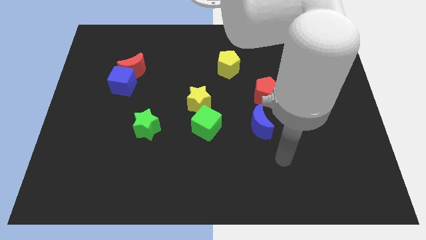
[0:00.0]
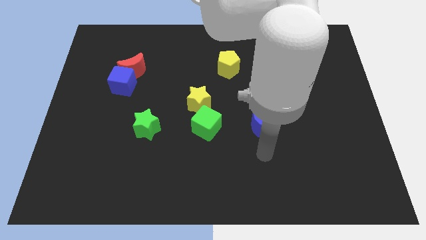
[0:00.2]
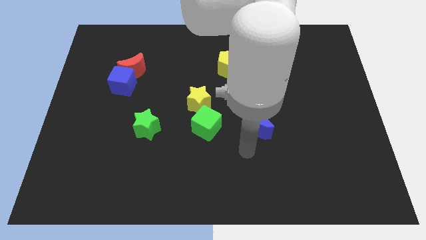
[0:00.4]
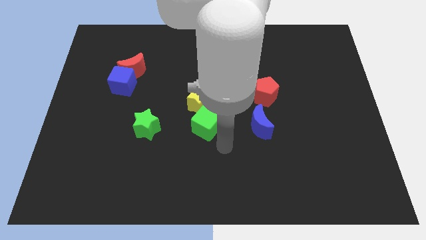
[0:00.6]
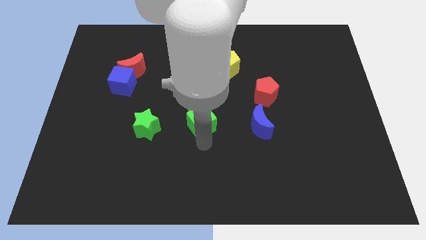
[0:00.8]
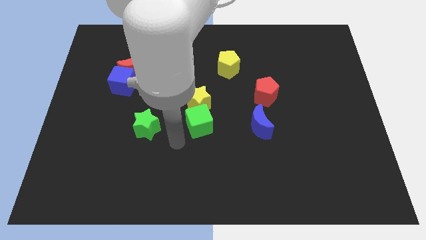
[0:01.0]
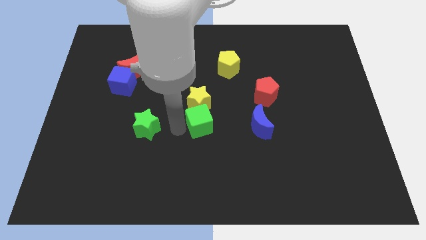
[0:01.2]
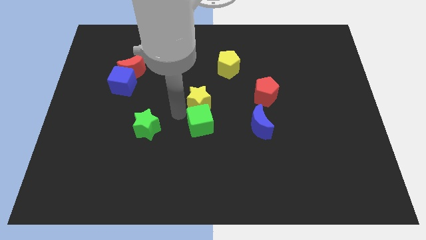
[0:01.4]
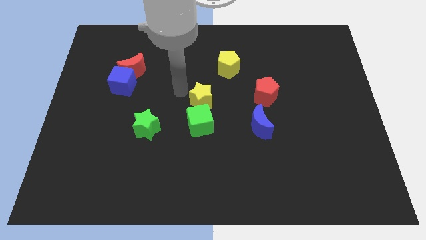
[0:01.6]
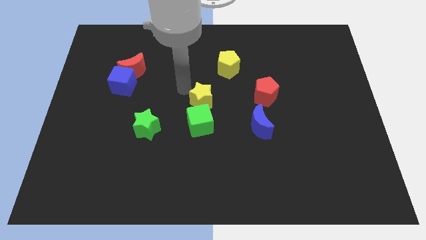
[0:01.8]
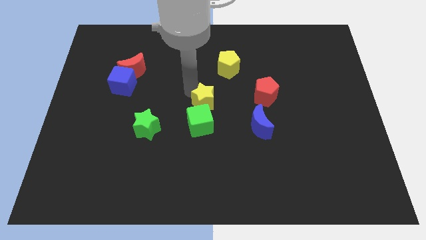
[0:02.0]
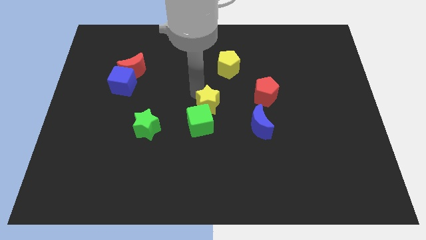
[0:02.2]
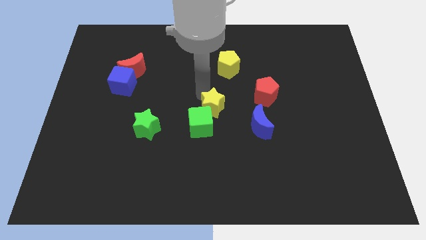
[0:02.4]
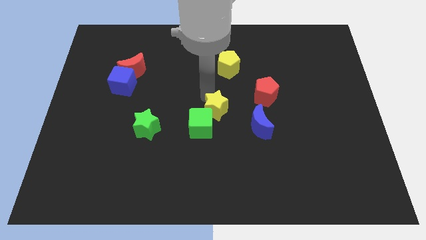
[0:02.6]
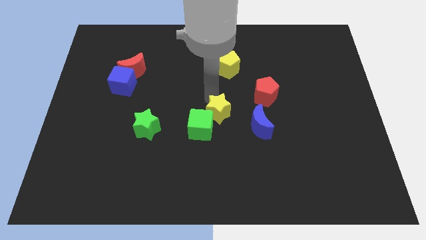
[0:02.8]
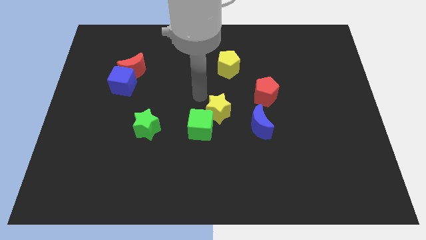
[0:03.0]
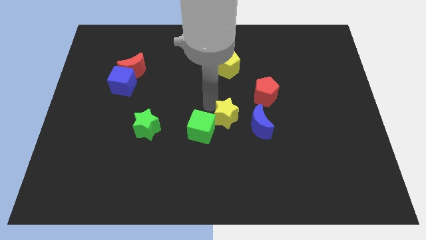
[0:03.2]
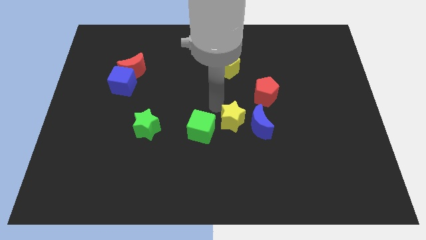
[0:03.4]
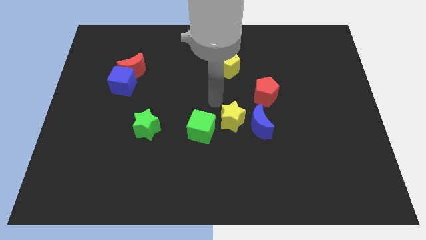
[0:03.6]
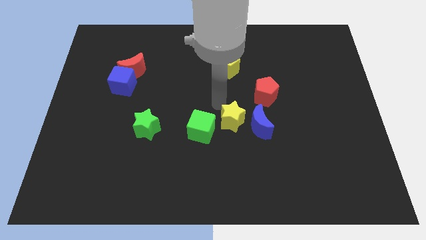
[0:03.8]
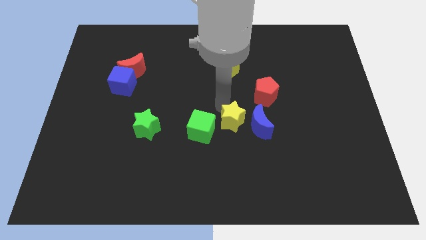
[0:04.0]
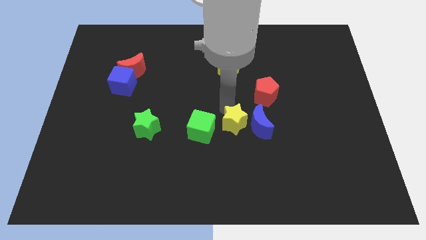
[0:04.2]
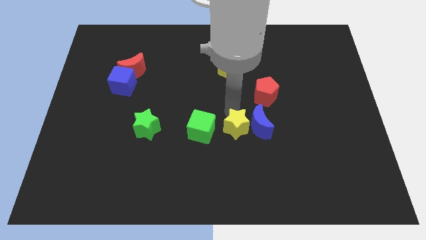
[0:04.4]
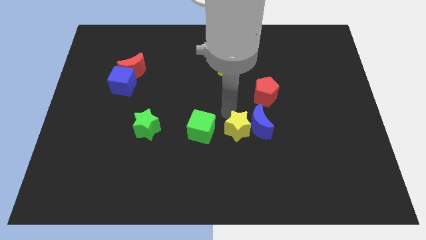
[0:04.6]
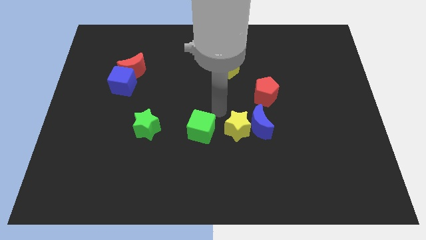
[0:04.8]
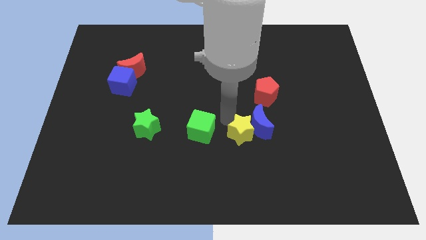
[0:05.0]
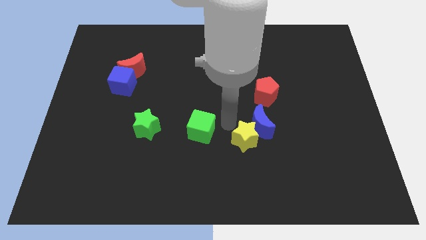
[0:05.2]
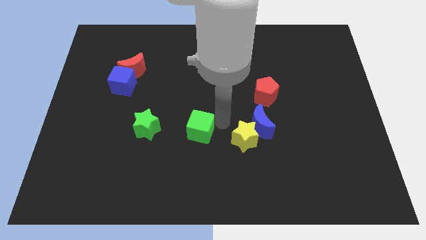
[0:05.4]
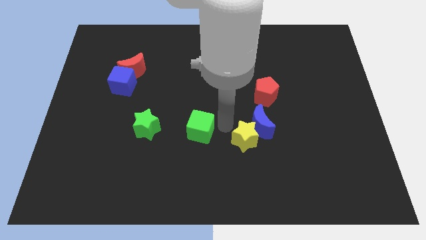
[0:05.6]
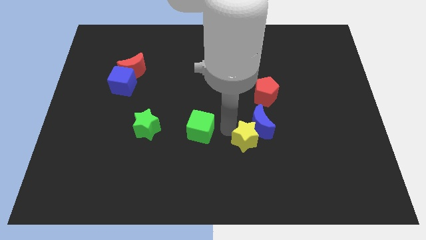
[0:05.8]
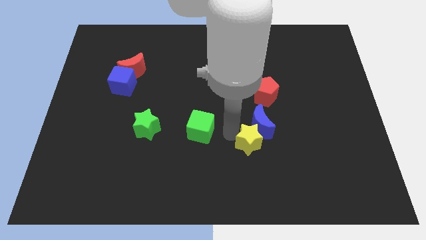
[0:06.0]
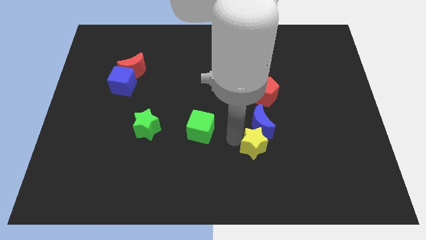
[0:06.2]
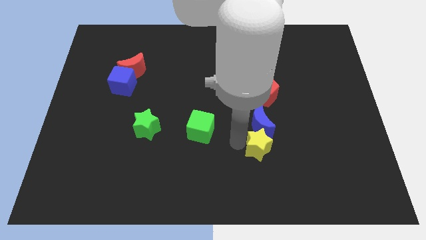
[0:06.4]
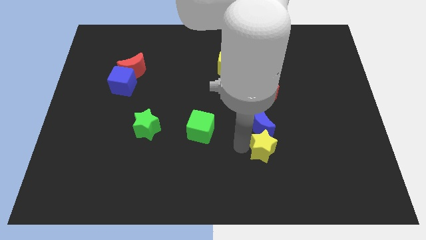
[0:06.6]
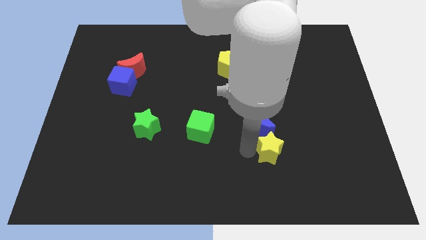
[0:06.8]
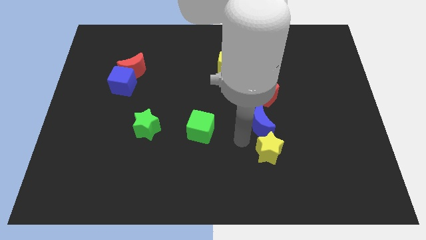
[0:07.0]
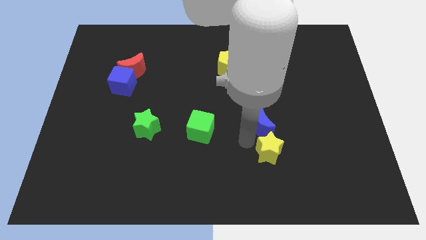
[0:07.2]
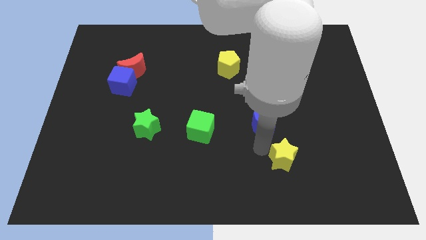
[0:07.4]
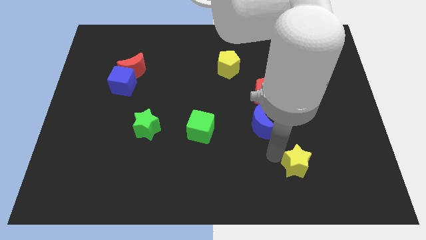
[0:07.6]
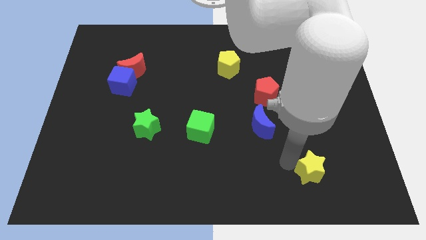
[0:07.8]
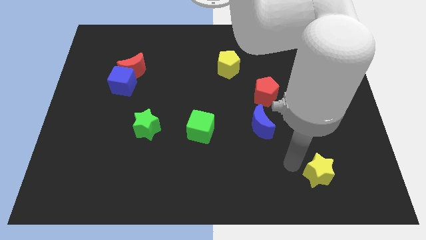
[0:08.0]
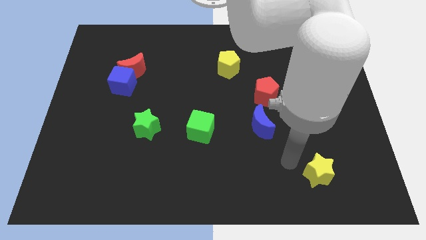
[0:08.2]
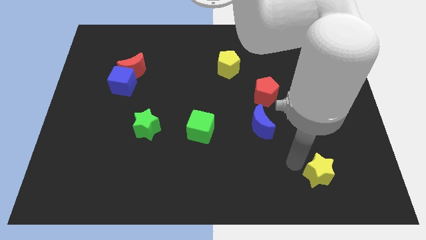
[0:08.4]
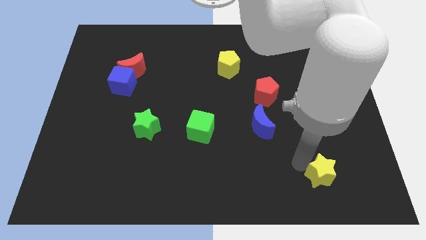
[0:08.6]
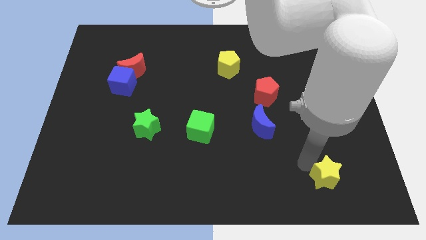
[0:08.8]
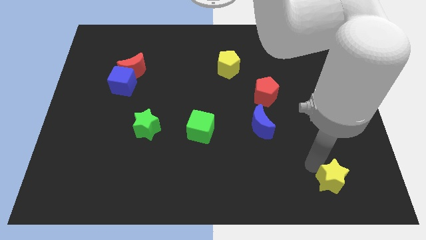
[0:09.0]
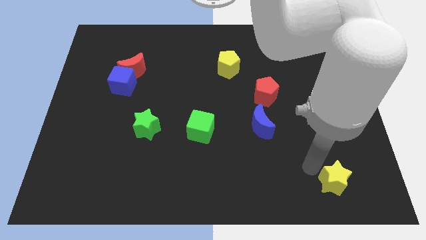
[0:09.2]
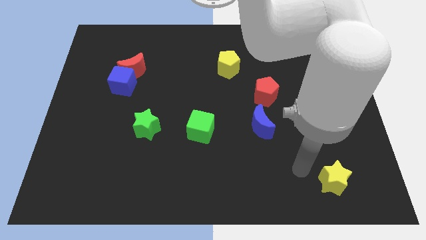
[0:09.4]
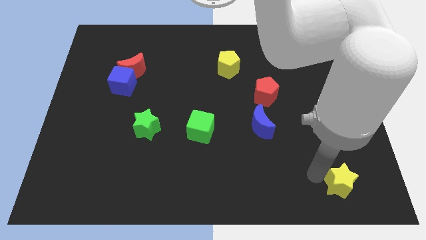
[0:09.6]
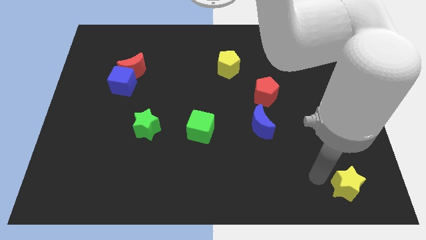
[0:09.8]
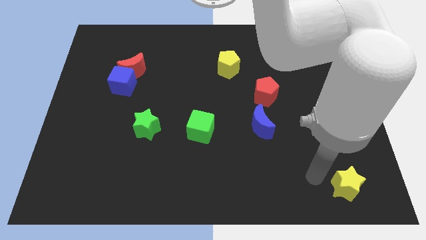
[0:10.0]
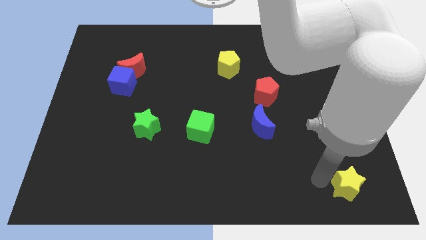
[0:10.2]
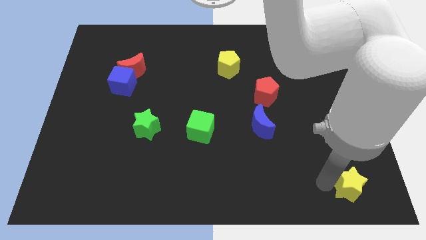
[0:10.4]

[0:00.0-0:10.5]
push the yellow star to the bottom right of the board

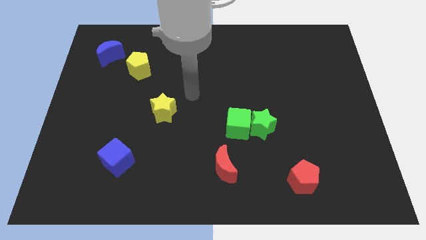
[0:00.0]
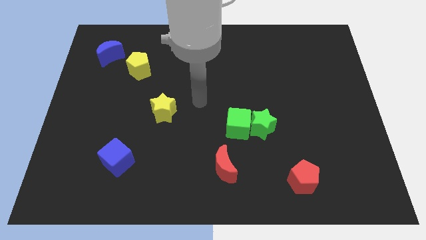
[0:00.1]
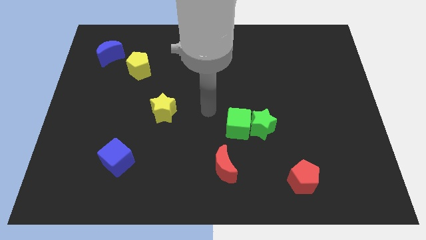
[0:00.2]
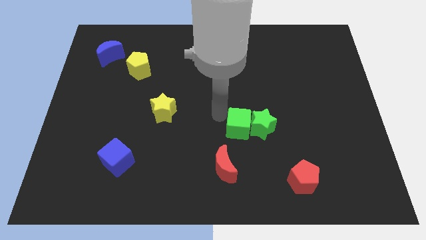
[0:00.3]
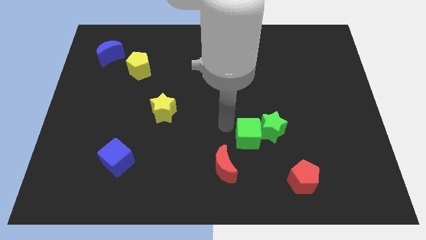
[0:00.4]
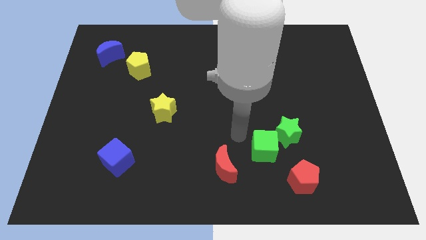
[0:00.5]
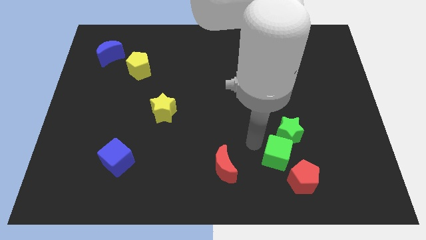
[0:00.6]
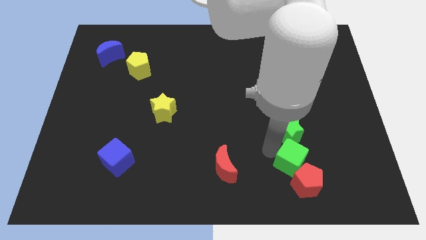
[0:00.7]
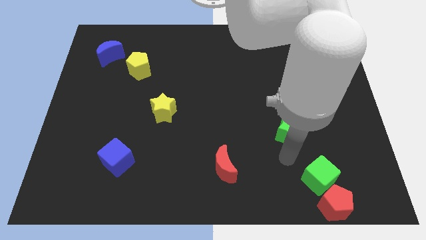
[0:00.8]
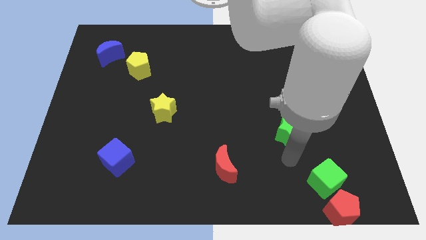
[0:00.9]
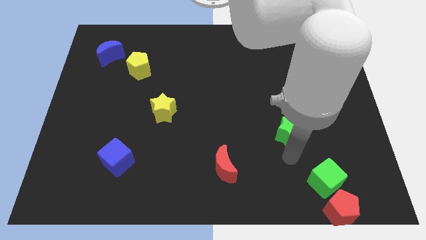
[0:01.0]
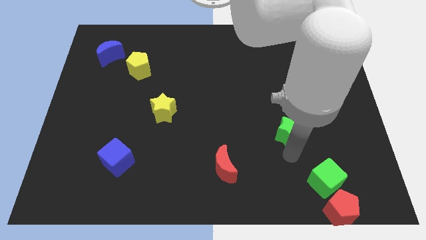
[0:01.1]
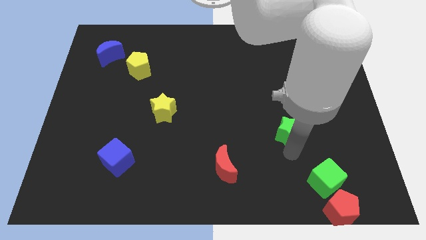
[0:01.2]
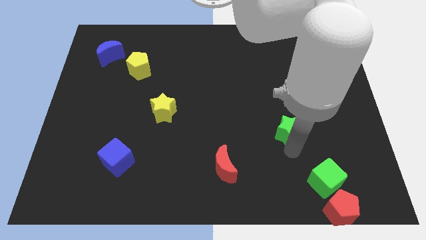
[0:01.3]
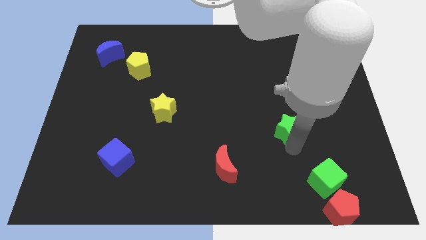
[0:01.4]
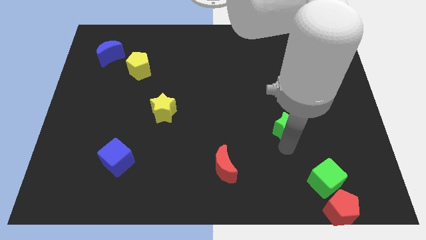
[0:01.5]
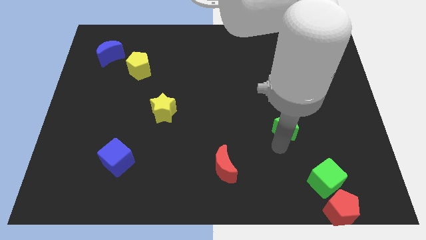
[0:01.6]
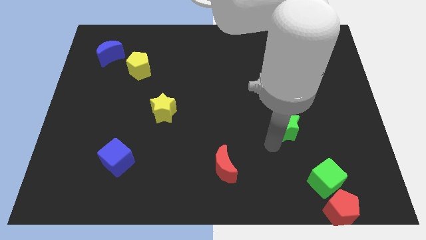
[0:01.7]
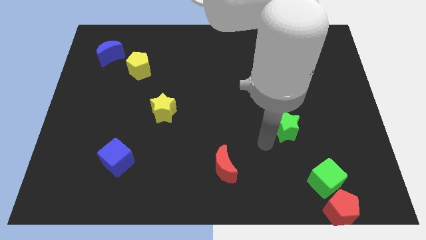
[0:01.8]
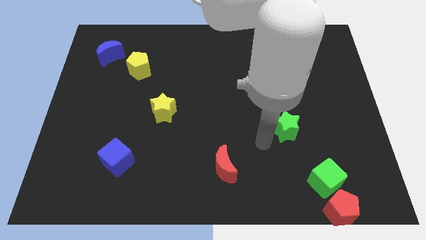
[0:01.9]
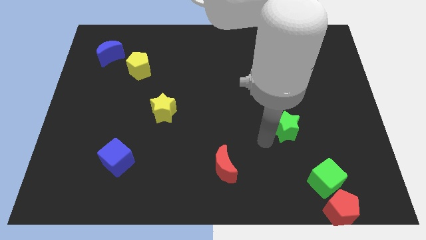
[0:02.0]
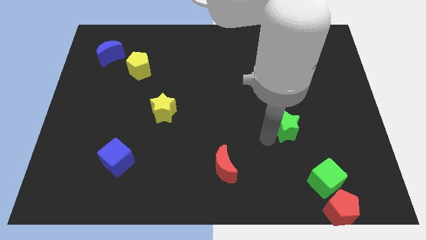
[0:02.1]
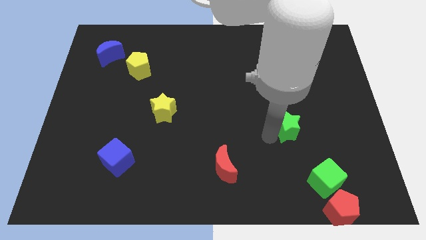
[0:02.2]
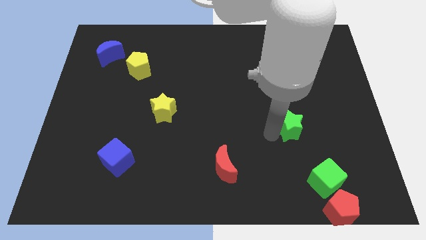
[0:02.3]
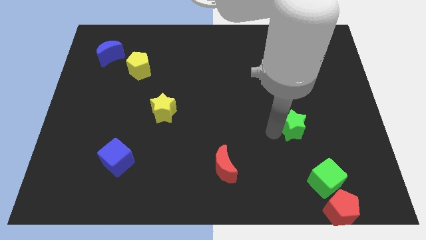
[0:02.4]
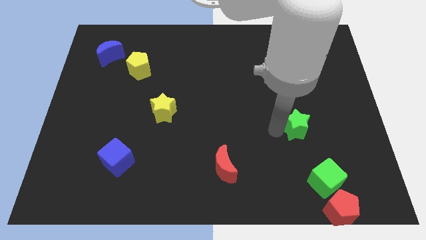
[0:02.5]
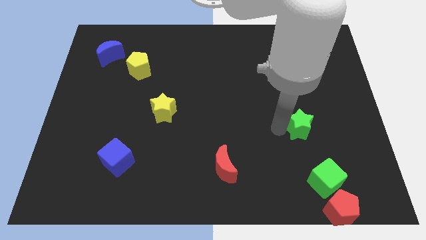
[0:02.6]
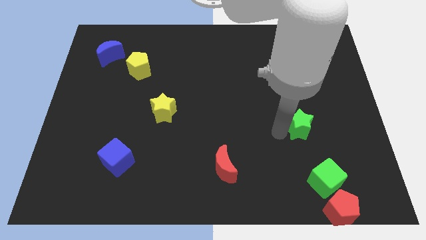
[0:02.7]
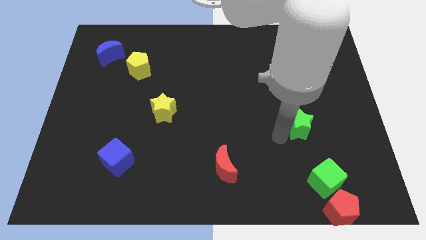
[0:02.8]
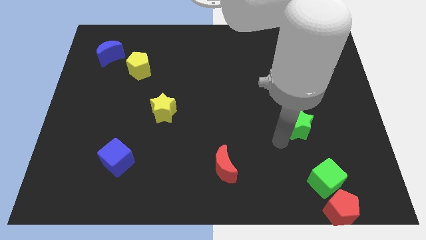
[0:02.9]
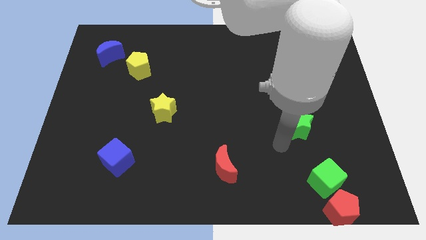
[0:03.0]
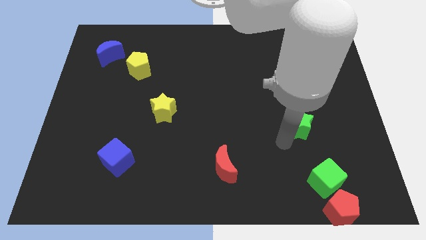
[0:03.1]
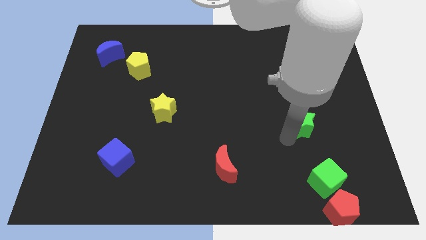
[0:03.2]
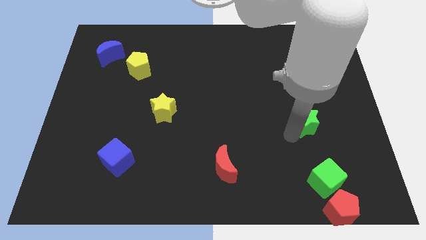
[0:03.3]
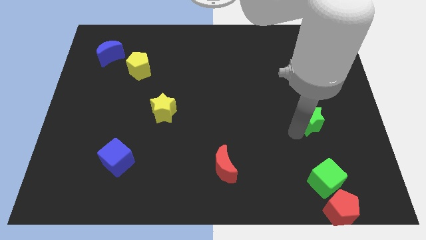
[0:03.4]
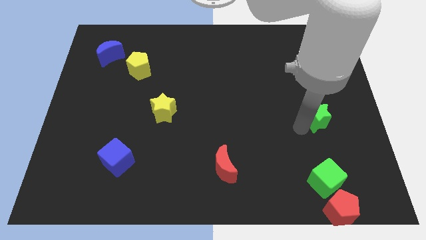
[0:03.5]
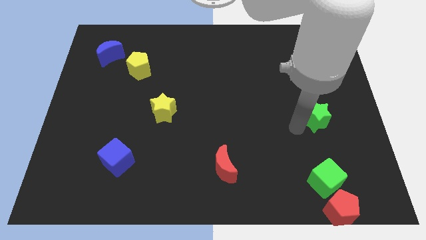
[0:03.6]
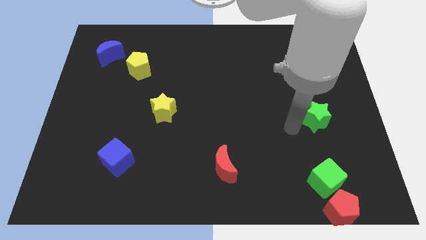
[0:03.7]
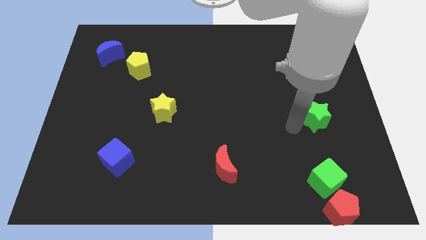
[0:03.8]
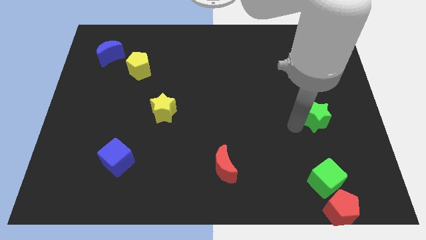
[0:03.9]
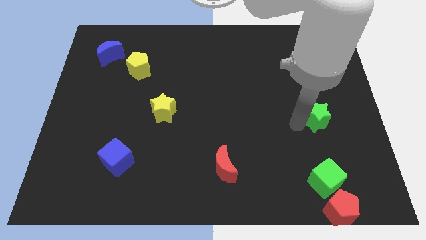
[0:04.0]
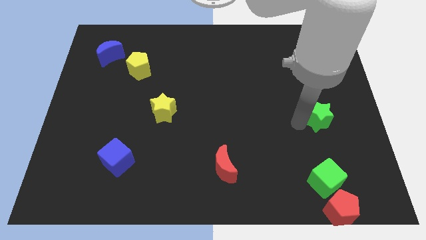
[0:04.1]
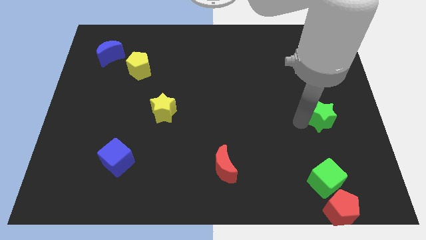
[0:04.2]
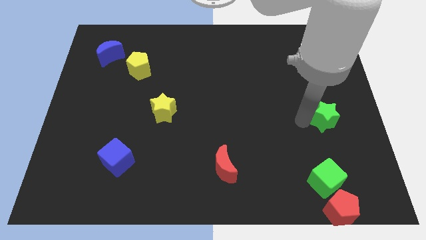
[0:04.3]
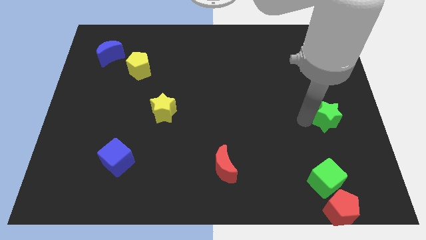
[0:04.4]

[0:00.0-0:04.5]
move the green star to the right side of the board
